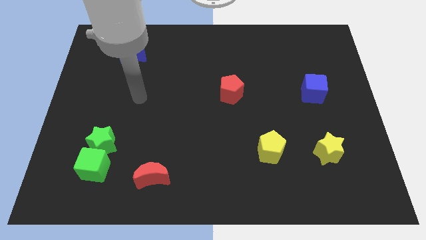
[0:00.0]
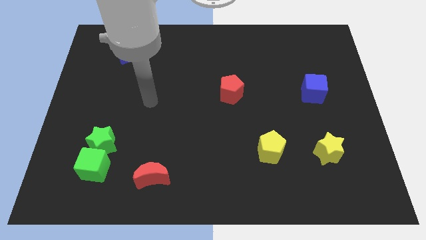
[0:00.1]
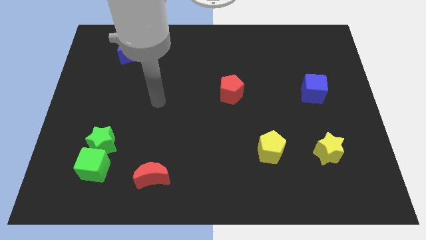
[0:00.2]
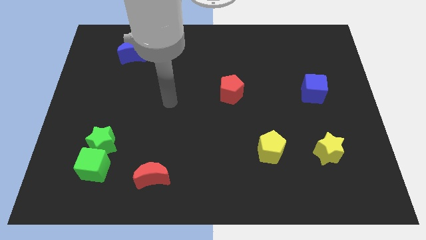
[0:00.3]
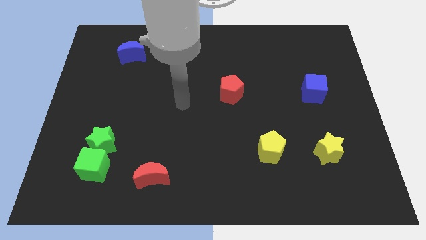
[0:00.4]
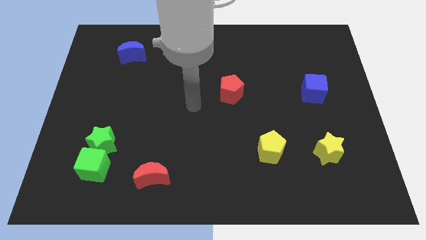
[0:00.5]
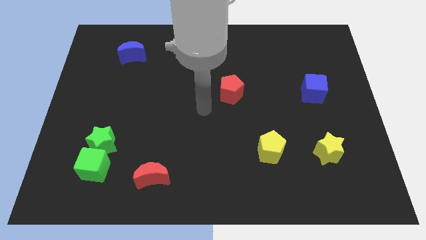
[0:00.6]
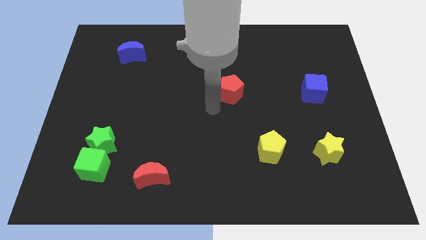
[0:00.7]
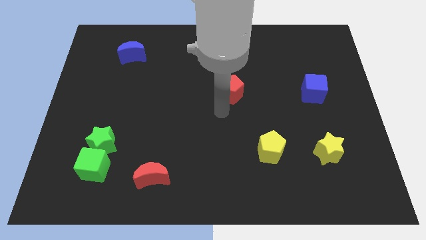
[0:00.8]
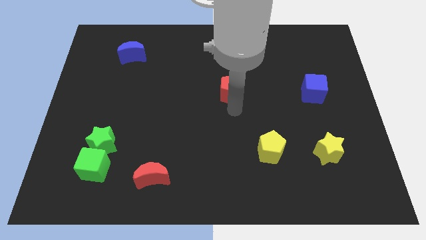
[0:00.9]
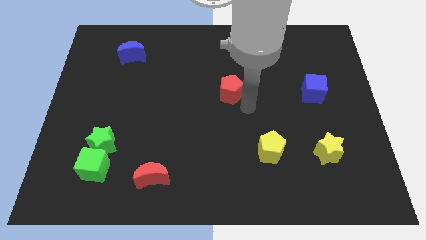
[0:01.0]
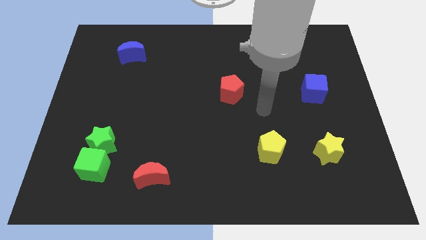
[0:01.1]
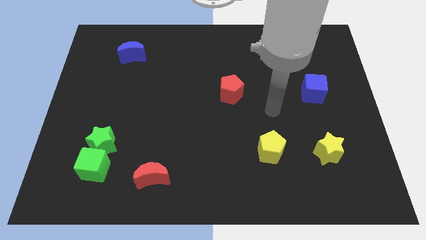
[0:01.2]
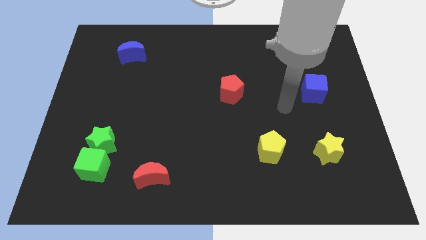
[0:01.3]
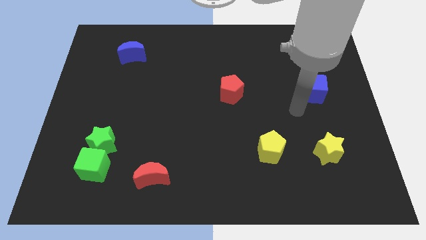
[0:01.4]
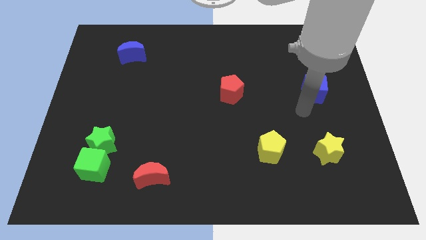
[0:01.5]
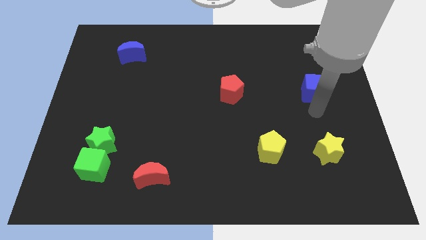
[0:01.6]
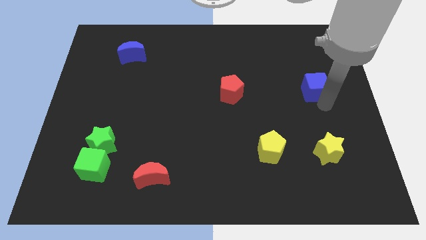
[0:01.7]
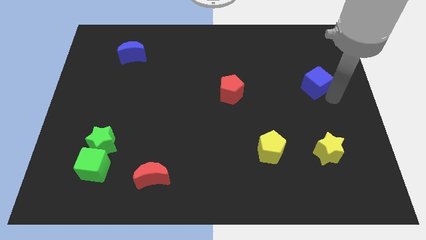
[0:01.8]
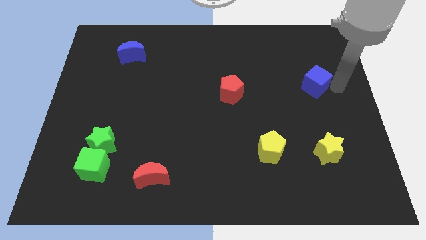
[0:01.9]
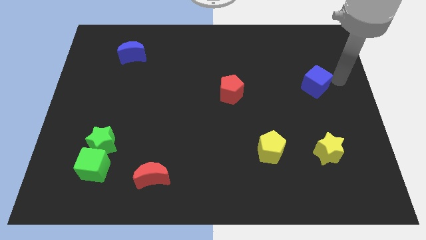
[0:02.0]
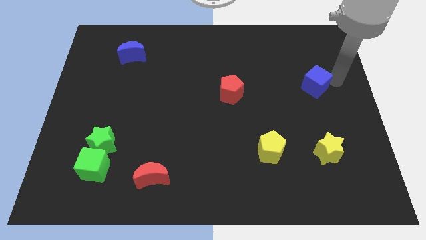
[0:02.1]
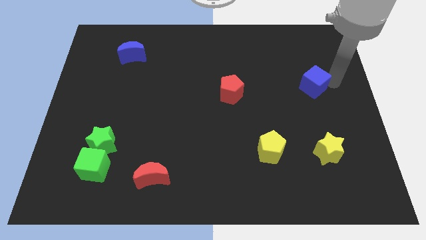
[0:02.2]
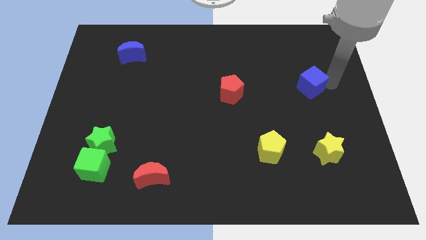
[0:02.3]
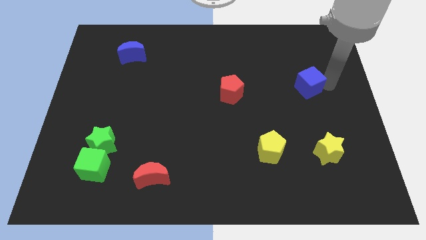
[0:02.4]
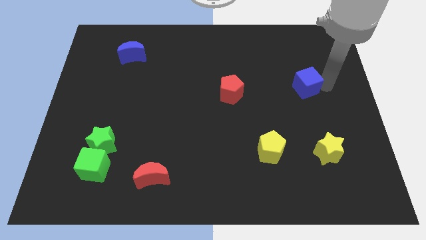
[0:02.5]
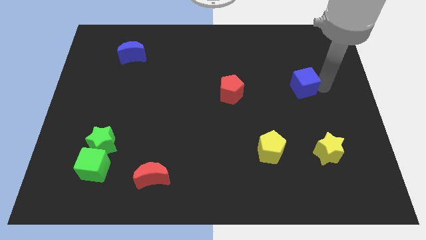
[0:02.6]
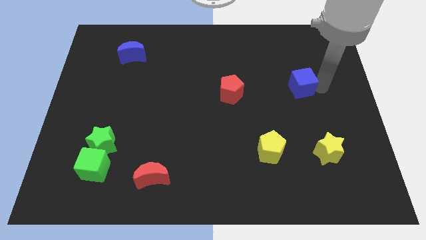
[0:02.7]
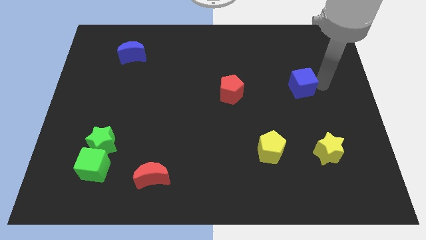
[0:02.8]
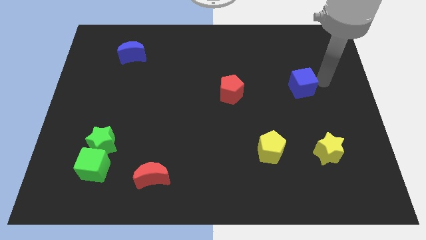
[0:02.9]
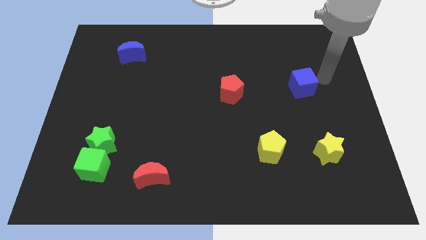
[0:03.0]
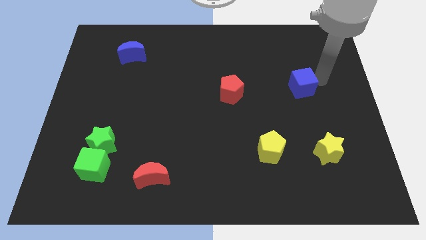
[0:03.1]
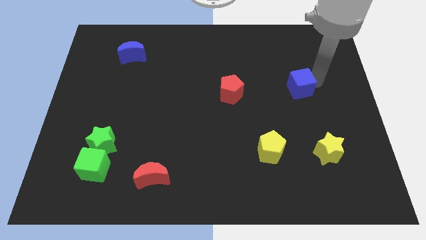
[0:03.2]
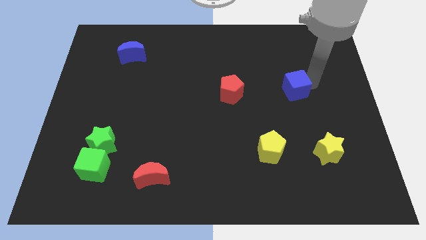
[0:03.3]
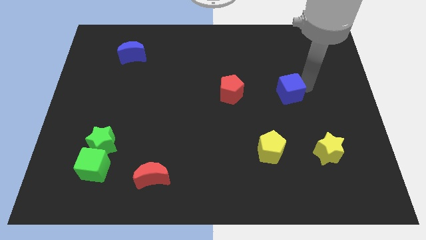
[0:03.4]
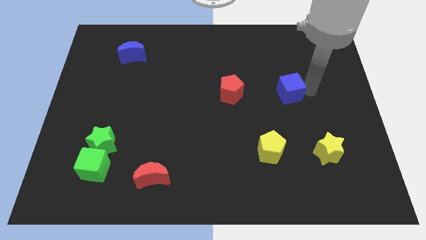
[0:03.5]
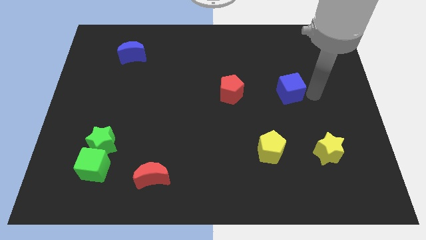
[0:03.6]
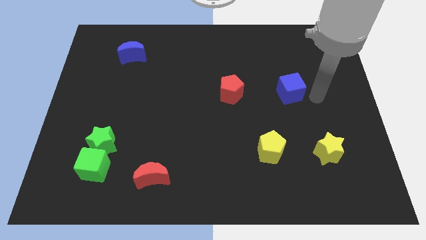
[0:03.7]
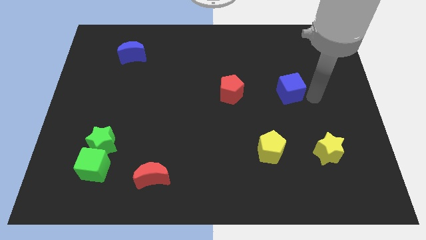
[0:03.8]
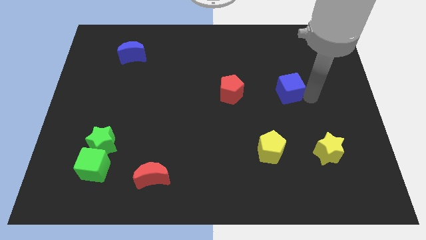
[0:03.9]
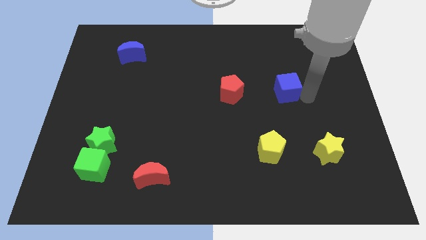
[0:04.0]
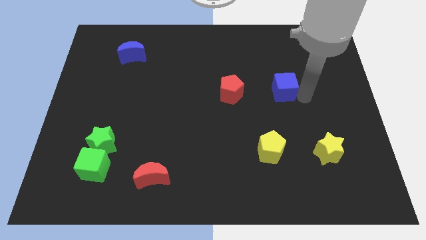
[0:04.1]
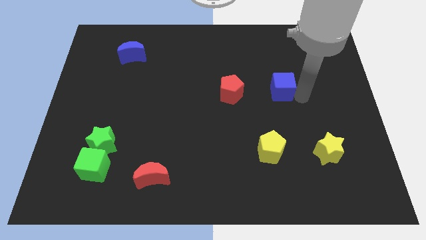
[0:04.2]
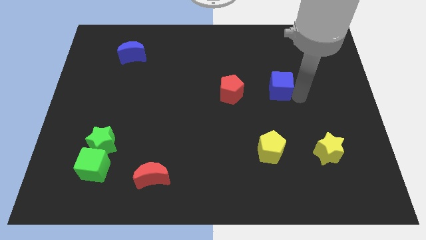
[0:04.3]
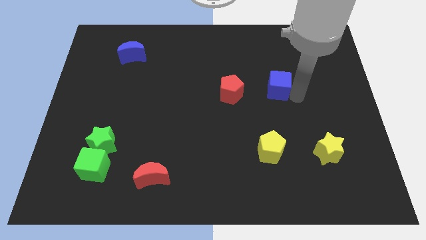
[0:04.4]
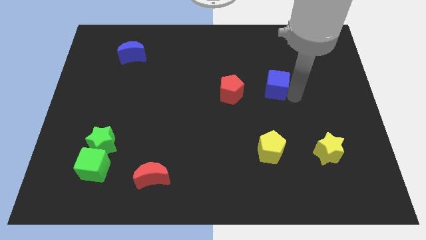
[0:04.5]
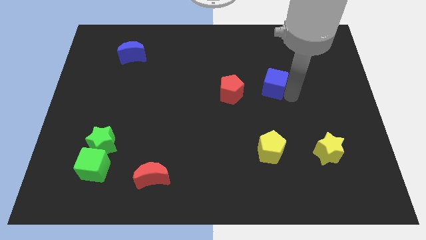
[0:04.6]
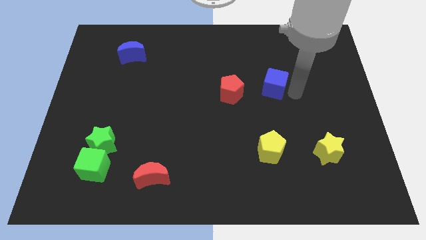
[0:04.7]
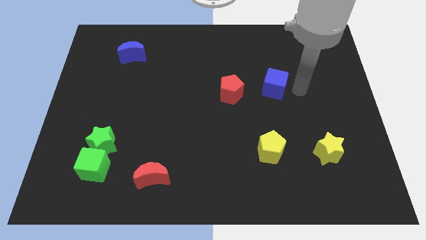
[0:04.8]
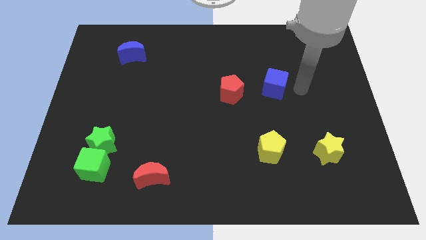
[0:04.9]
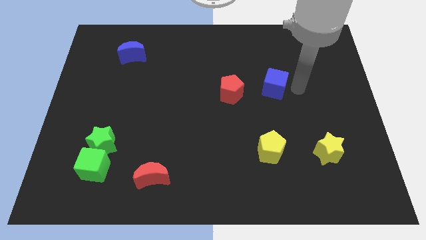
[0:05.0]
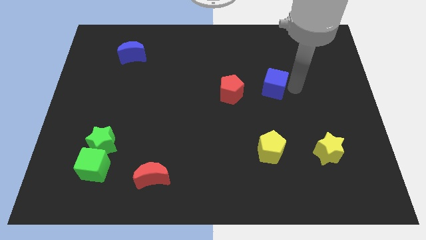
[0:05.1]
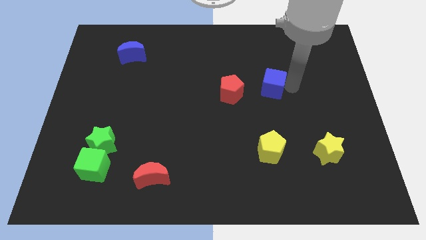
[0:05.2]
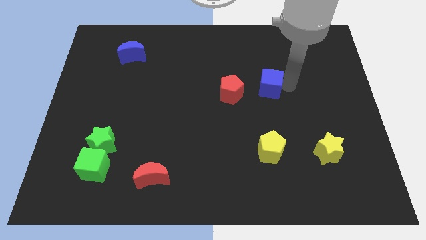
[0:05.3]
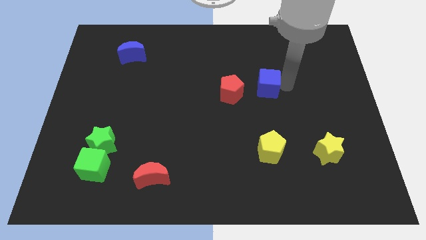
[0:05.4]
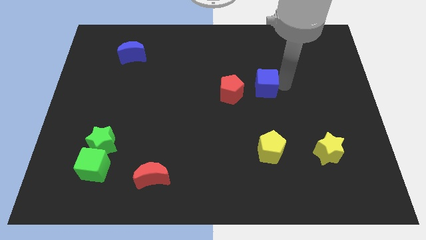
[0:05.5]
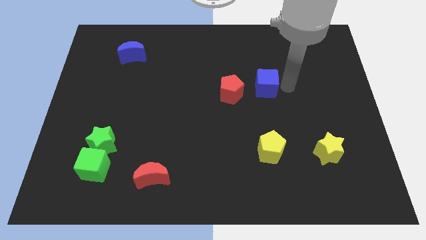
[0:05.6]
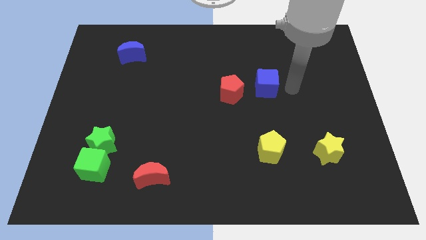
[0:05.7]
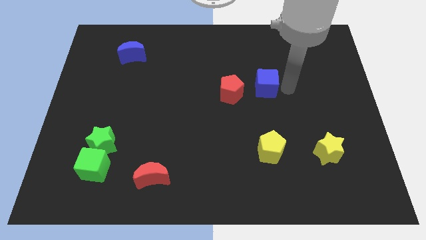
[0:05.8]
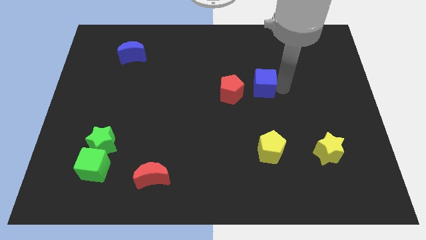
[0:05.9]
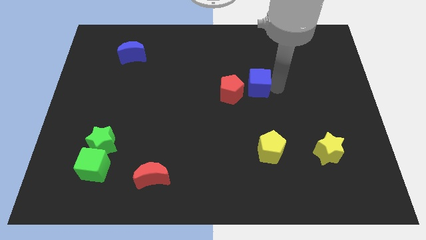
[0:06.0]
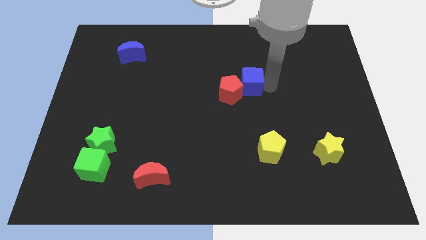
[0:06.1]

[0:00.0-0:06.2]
push the blue cube to the red pentagon

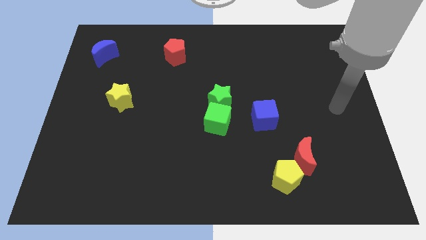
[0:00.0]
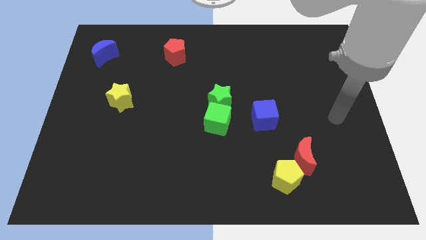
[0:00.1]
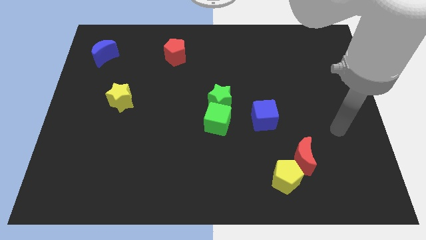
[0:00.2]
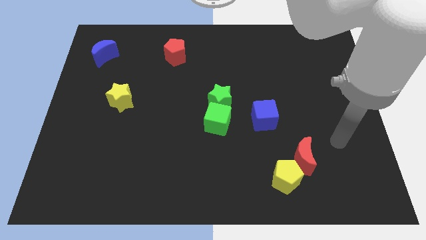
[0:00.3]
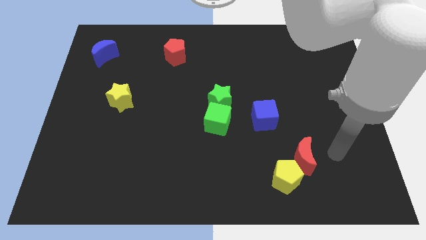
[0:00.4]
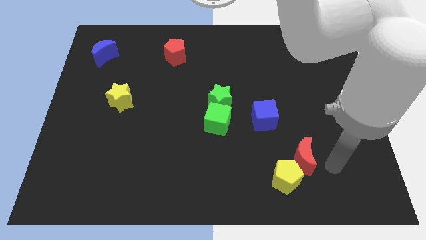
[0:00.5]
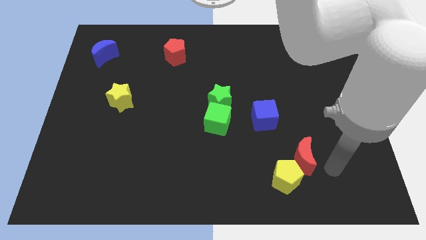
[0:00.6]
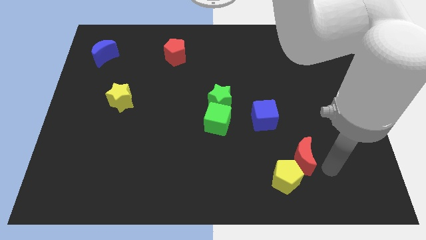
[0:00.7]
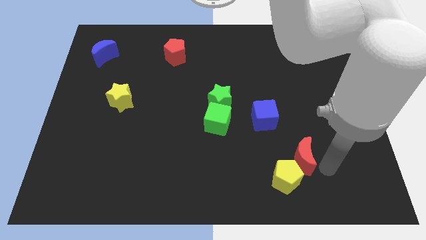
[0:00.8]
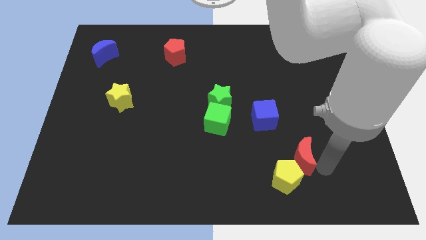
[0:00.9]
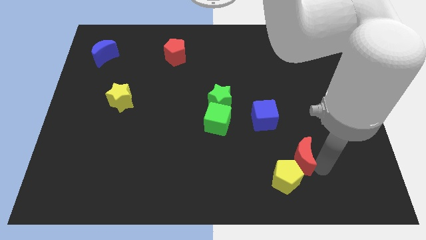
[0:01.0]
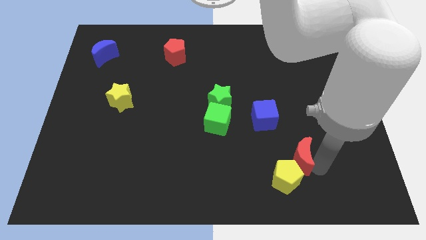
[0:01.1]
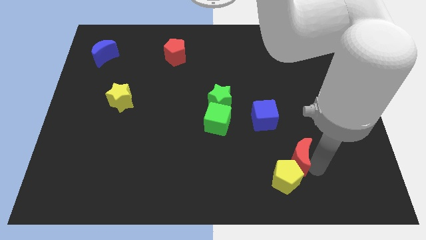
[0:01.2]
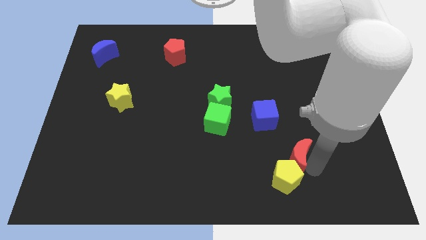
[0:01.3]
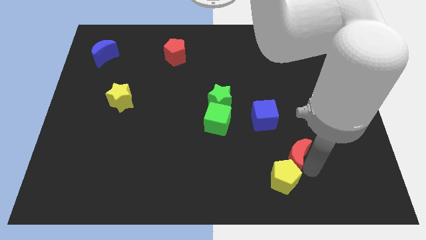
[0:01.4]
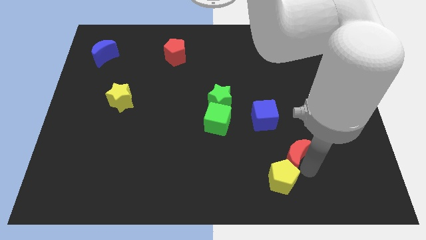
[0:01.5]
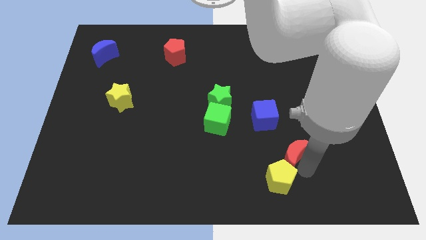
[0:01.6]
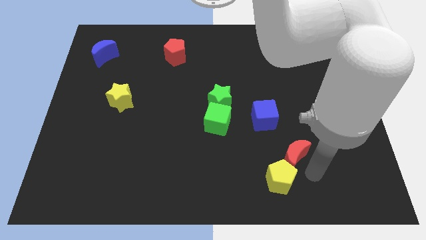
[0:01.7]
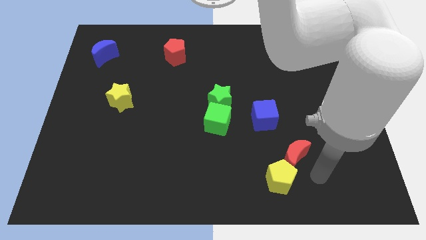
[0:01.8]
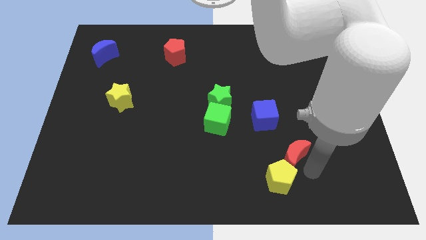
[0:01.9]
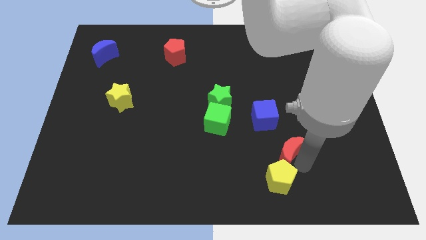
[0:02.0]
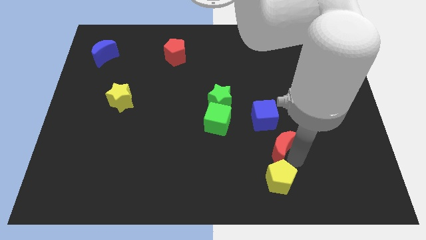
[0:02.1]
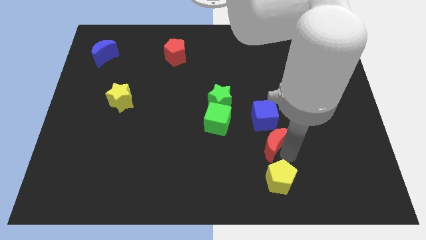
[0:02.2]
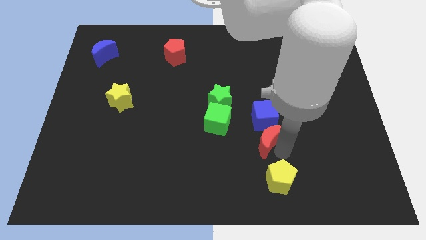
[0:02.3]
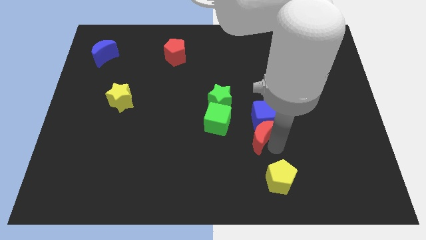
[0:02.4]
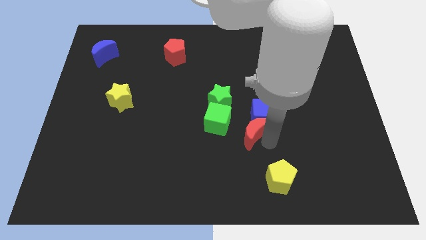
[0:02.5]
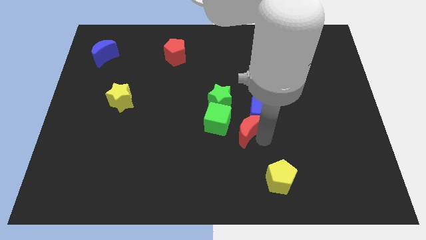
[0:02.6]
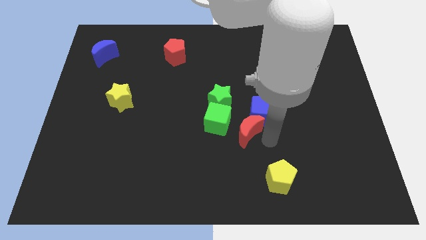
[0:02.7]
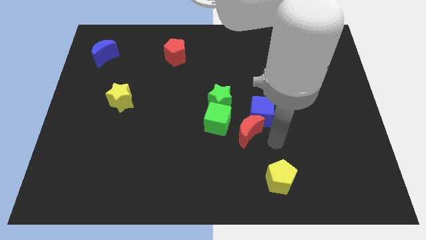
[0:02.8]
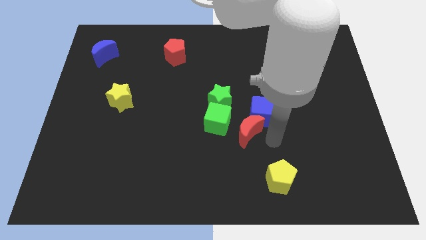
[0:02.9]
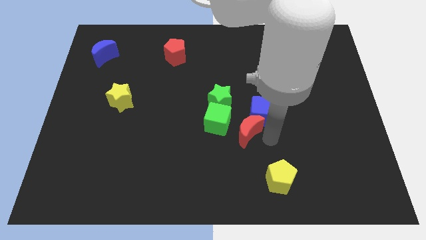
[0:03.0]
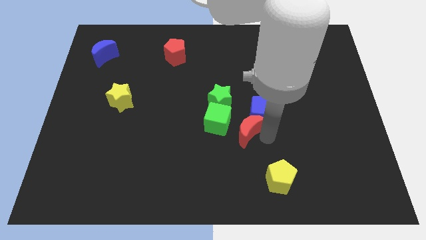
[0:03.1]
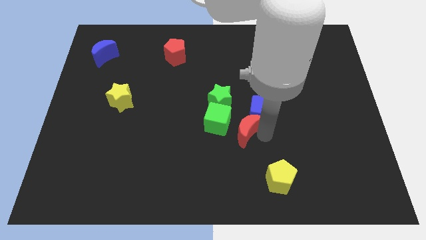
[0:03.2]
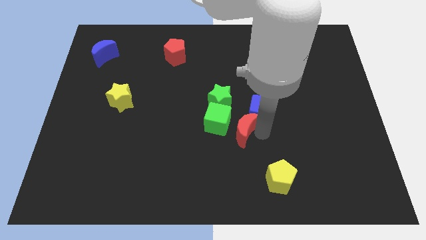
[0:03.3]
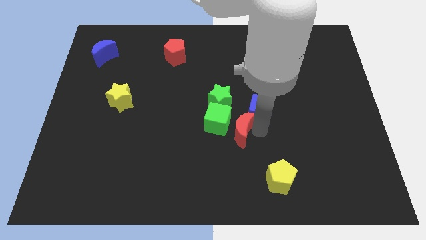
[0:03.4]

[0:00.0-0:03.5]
move the red moon to the green cube
